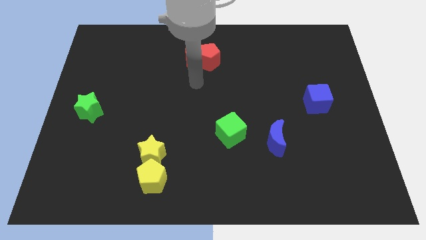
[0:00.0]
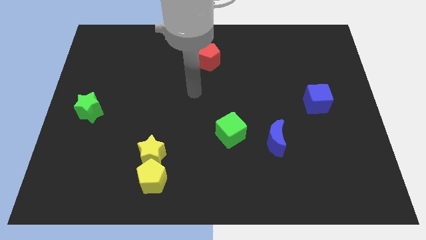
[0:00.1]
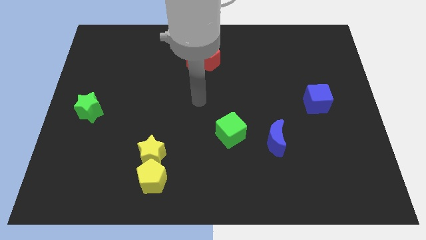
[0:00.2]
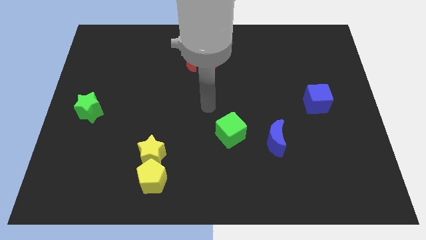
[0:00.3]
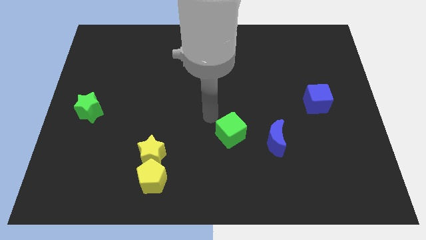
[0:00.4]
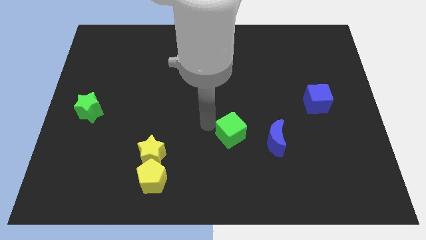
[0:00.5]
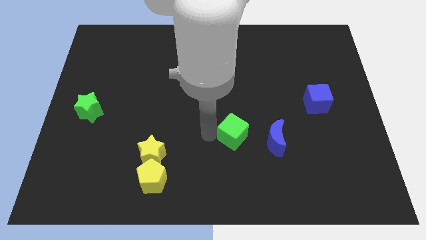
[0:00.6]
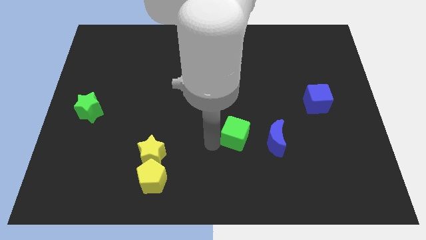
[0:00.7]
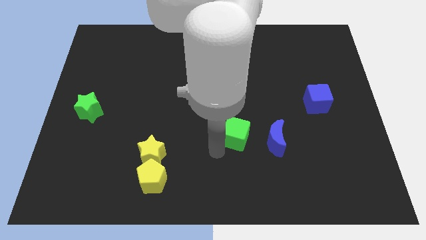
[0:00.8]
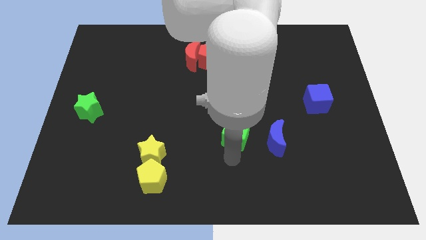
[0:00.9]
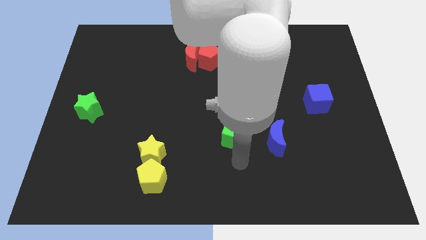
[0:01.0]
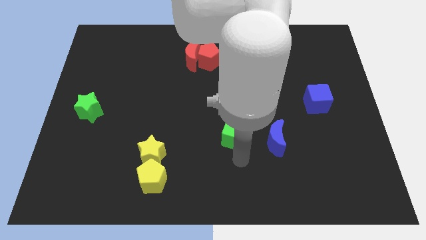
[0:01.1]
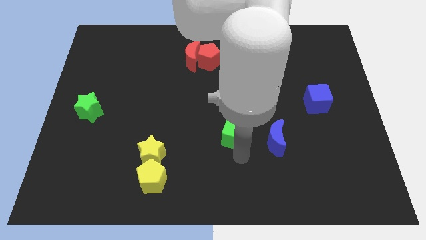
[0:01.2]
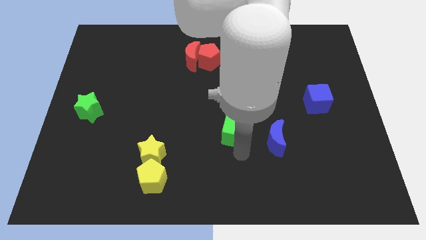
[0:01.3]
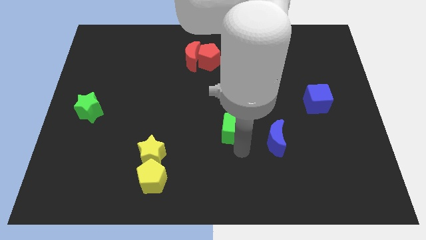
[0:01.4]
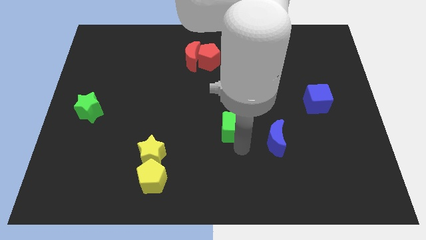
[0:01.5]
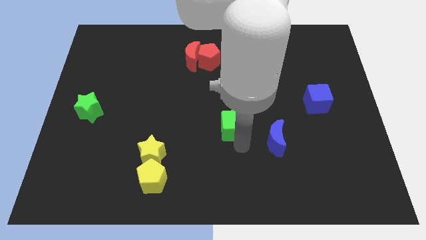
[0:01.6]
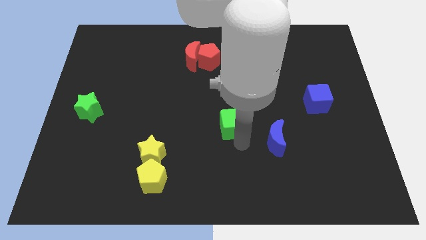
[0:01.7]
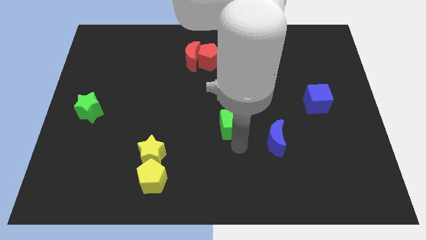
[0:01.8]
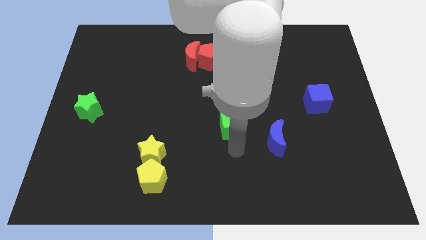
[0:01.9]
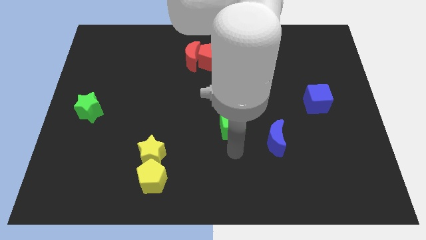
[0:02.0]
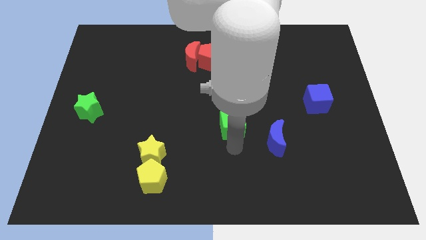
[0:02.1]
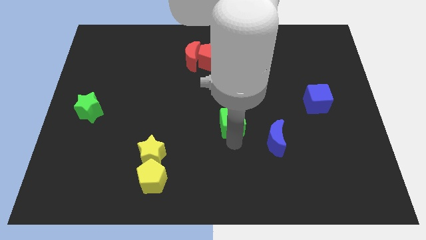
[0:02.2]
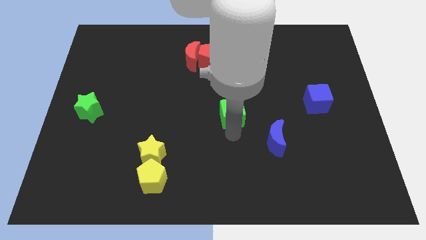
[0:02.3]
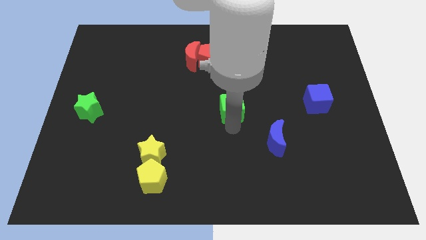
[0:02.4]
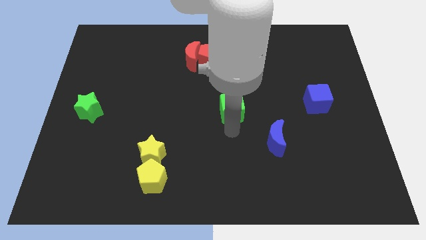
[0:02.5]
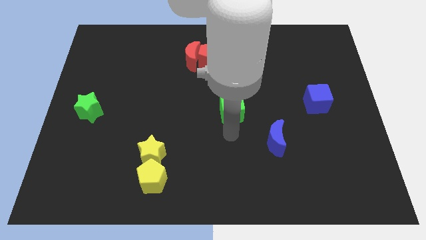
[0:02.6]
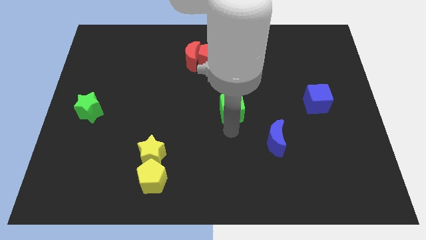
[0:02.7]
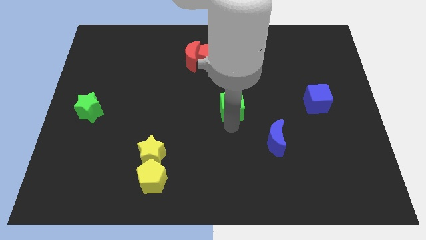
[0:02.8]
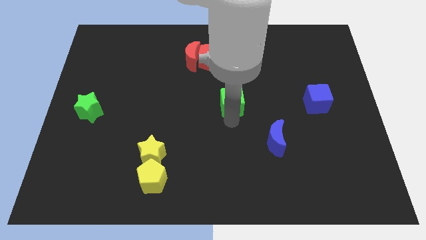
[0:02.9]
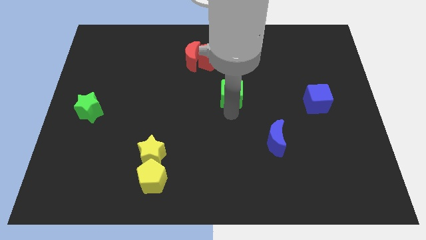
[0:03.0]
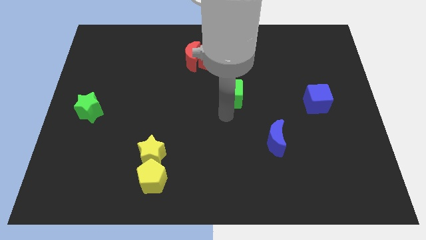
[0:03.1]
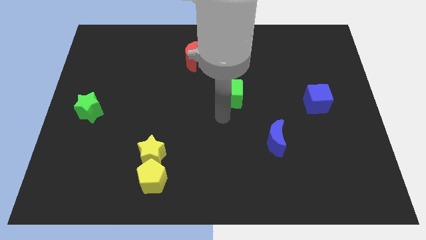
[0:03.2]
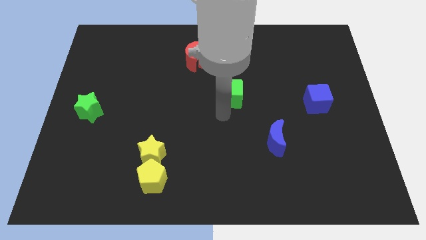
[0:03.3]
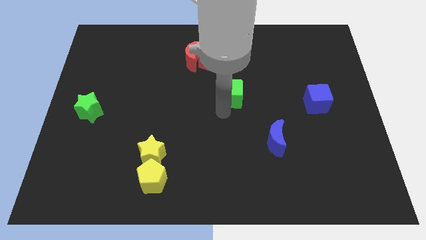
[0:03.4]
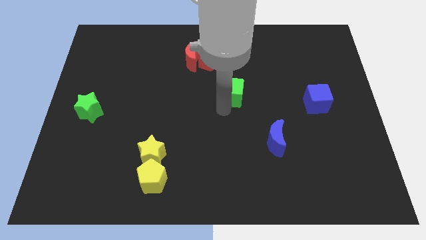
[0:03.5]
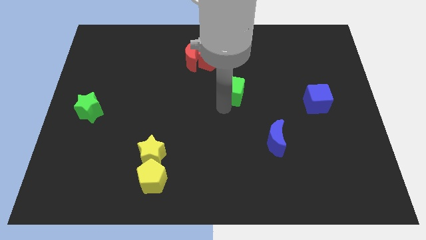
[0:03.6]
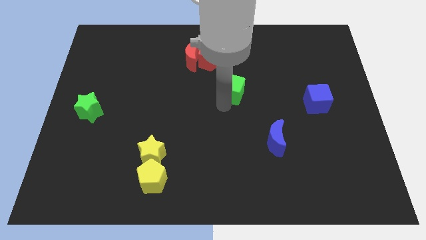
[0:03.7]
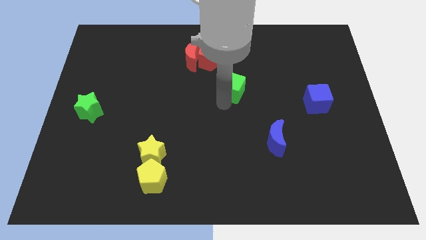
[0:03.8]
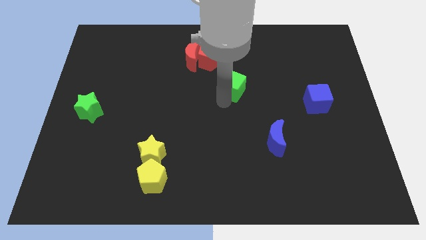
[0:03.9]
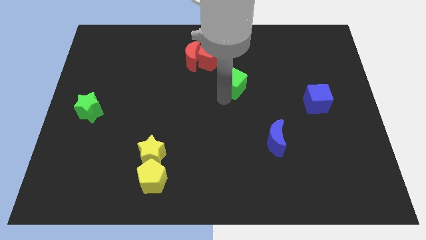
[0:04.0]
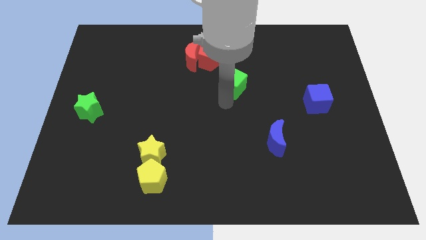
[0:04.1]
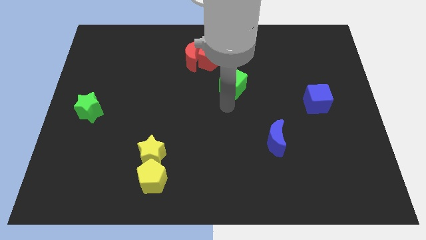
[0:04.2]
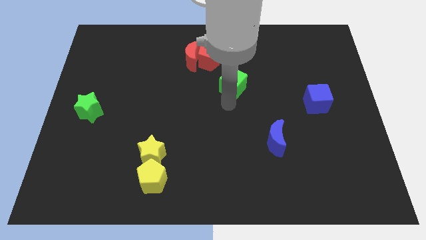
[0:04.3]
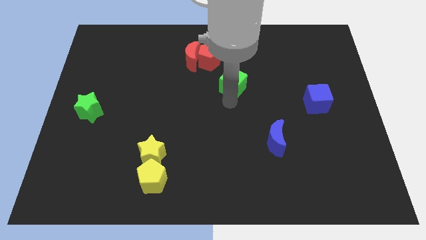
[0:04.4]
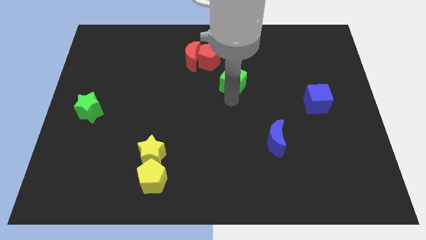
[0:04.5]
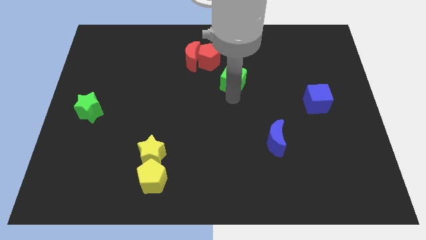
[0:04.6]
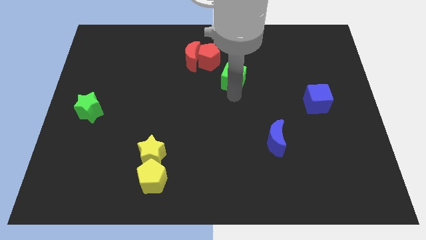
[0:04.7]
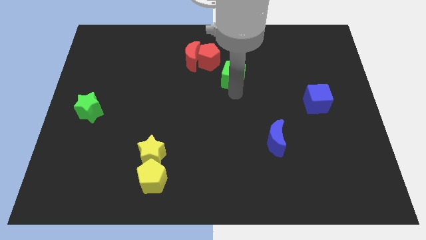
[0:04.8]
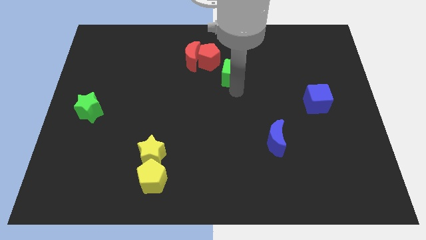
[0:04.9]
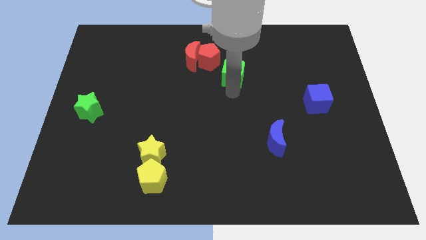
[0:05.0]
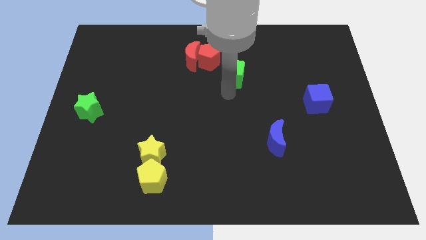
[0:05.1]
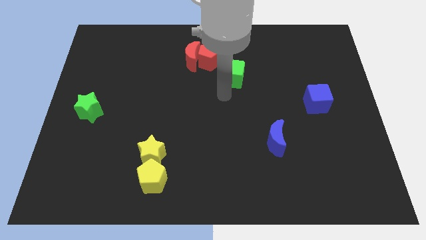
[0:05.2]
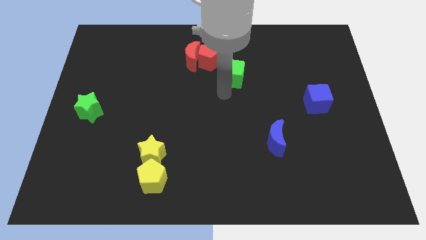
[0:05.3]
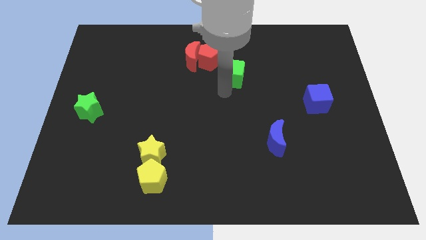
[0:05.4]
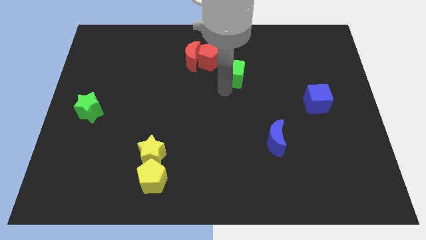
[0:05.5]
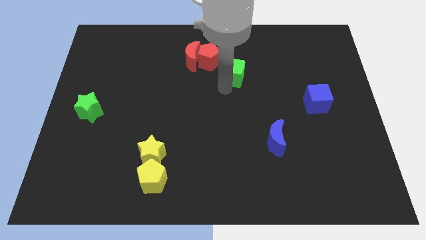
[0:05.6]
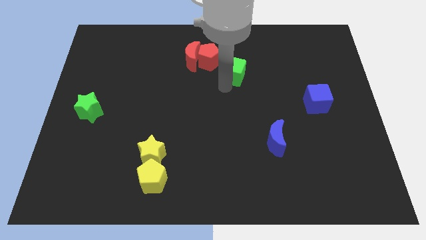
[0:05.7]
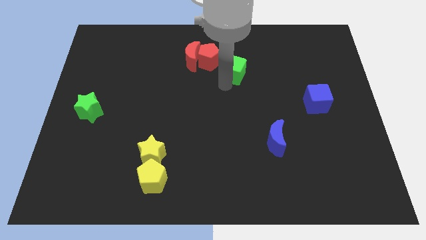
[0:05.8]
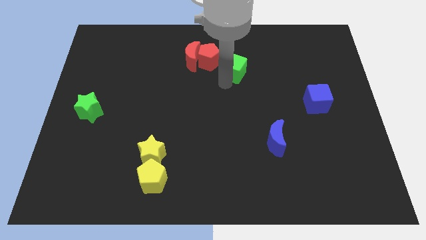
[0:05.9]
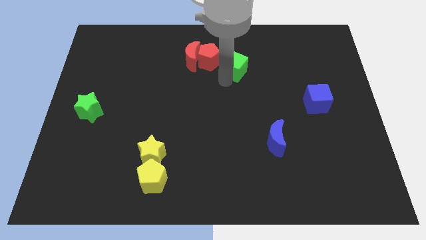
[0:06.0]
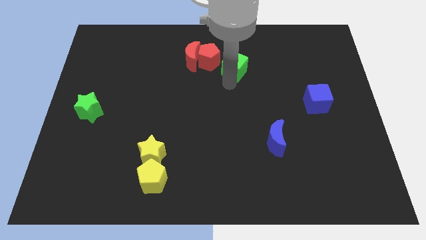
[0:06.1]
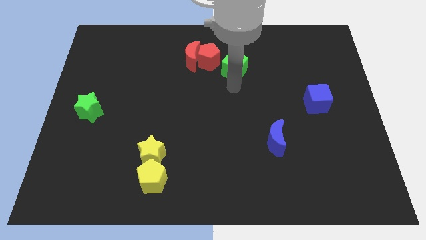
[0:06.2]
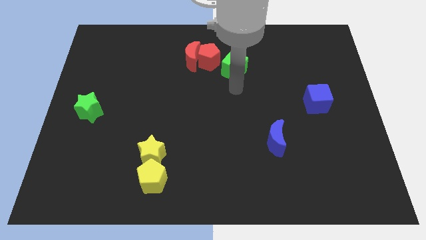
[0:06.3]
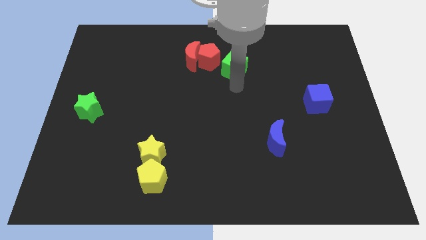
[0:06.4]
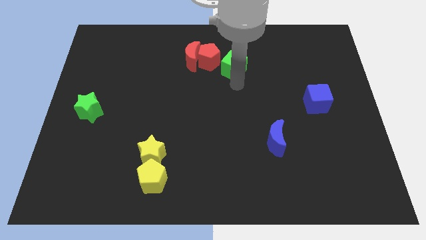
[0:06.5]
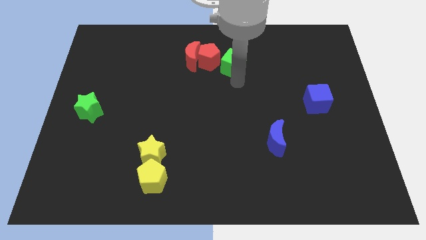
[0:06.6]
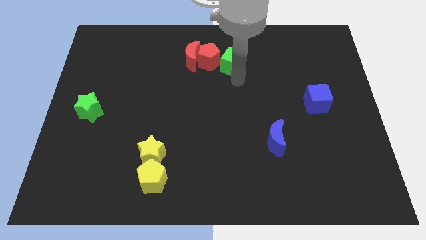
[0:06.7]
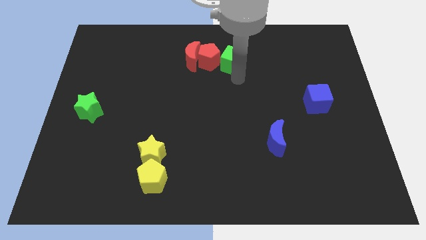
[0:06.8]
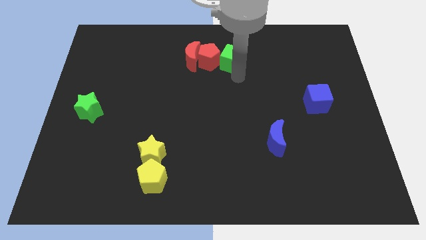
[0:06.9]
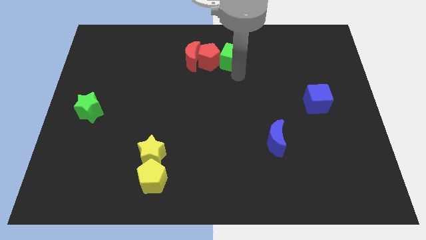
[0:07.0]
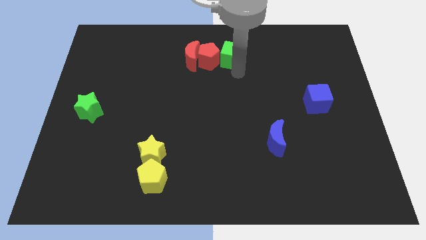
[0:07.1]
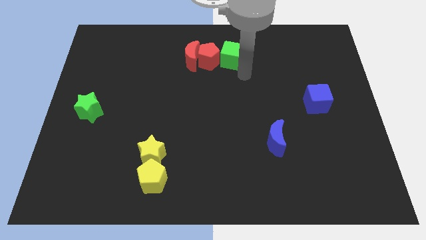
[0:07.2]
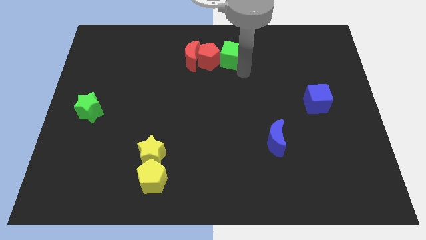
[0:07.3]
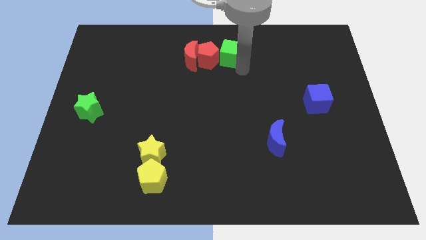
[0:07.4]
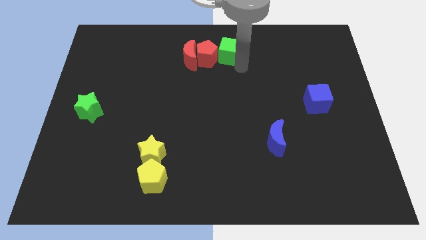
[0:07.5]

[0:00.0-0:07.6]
push the green cube to the towards your base
